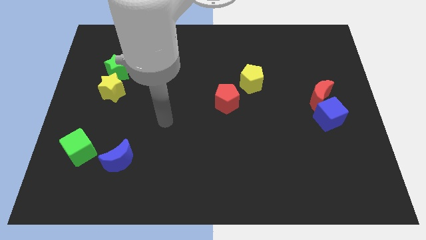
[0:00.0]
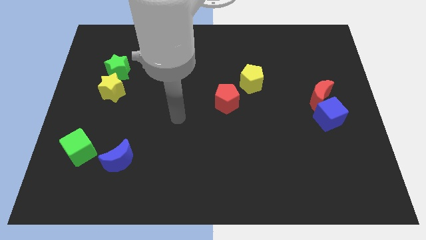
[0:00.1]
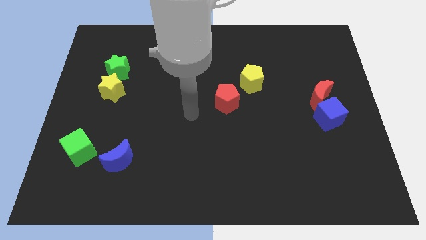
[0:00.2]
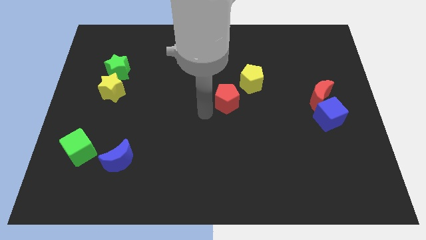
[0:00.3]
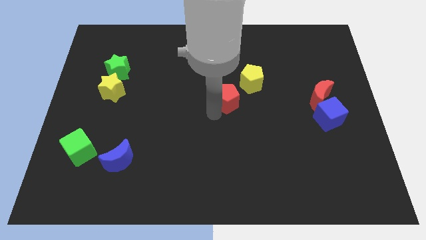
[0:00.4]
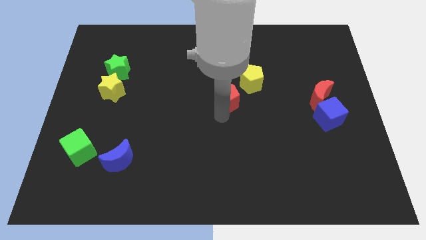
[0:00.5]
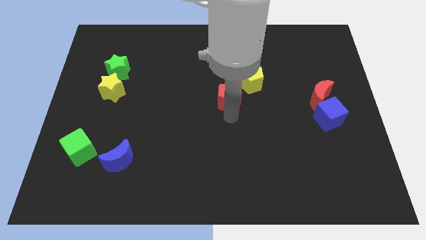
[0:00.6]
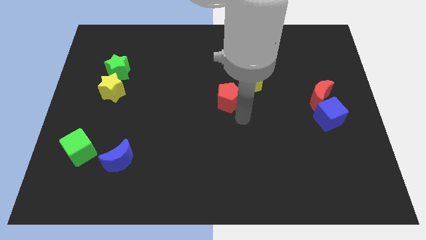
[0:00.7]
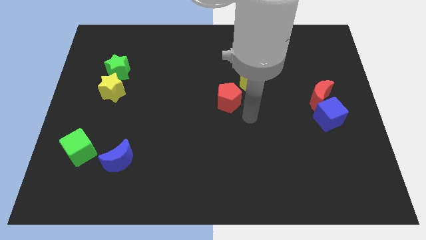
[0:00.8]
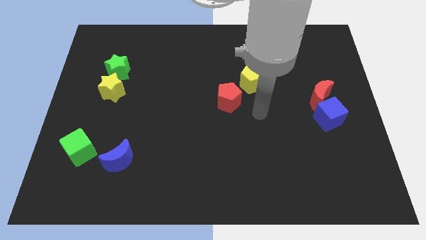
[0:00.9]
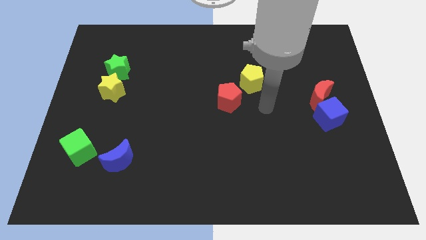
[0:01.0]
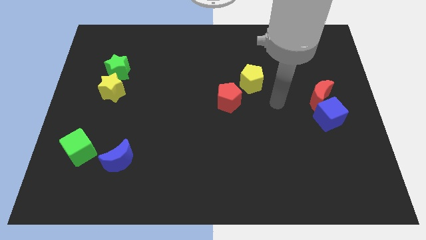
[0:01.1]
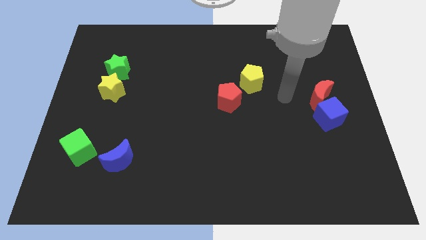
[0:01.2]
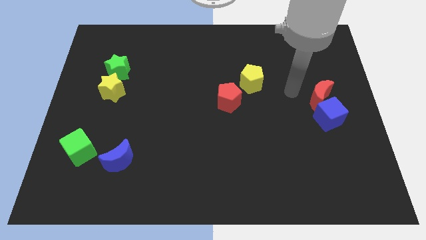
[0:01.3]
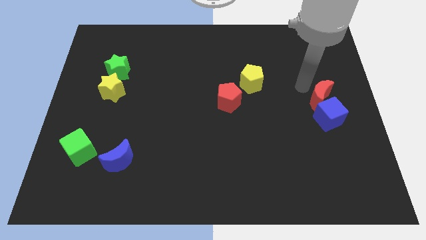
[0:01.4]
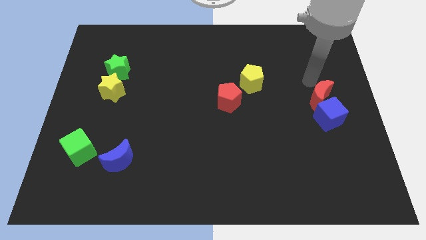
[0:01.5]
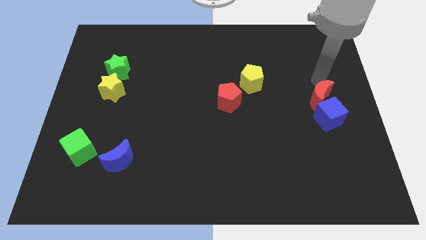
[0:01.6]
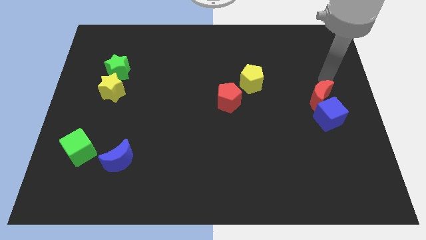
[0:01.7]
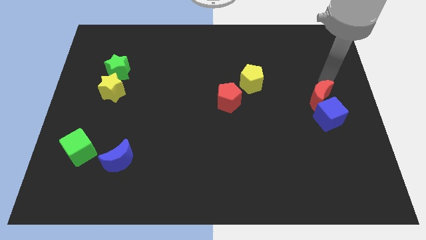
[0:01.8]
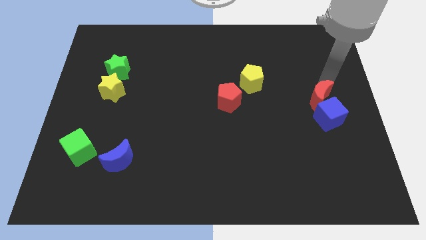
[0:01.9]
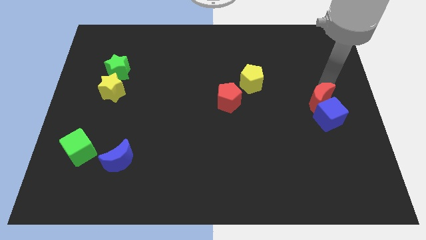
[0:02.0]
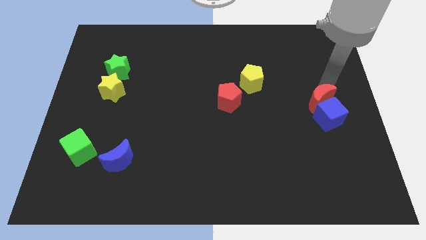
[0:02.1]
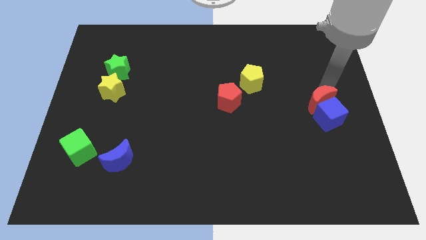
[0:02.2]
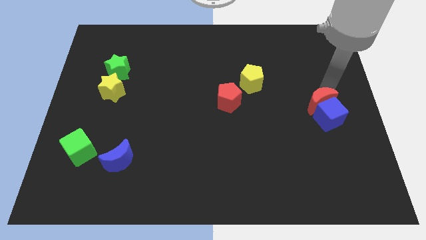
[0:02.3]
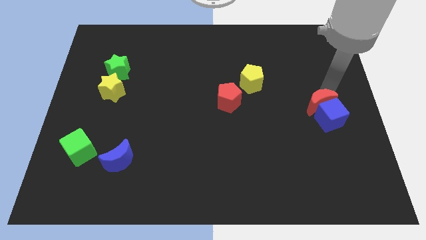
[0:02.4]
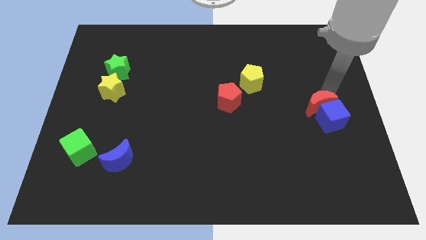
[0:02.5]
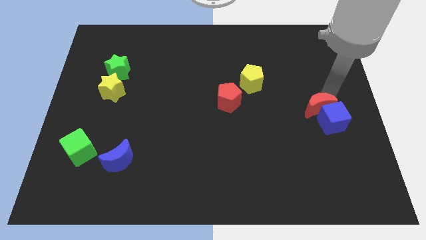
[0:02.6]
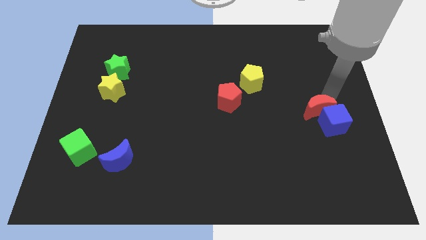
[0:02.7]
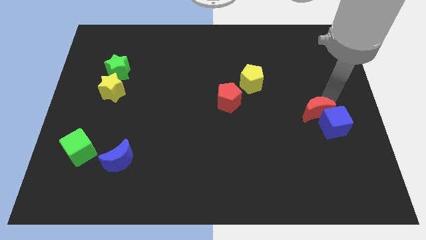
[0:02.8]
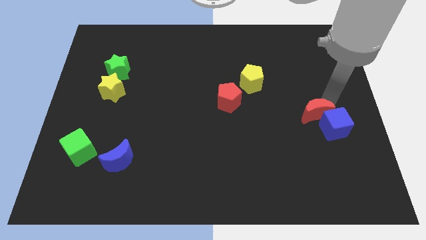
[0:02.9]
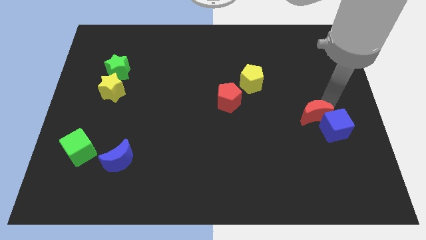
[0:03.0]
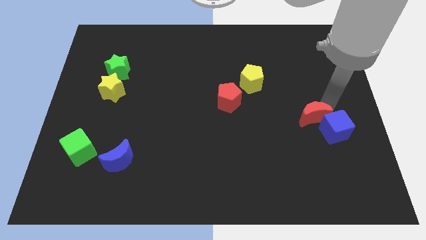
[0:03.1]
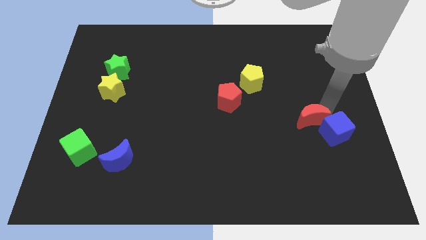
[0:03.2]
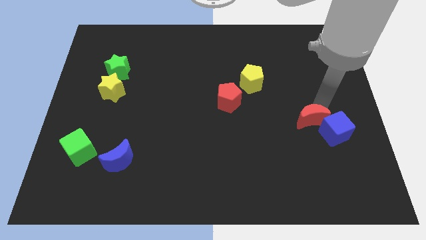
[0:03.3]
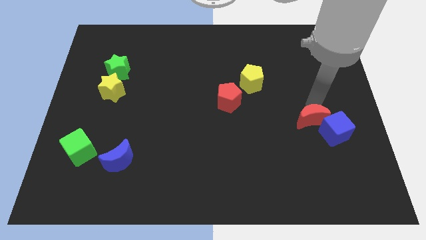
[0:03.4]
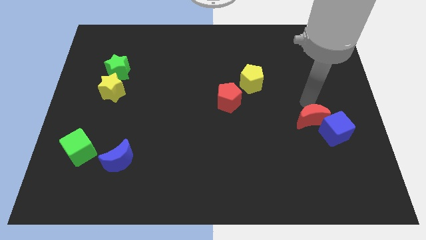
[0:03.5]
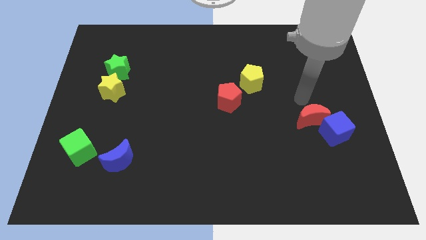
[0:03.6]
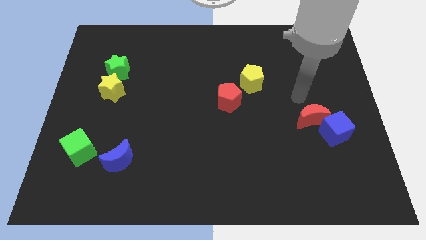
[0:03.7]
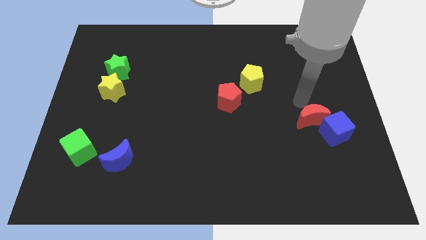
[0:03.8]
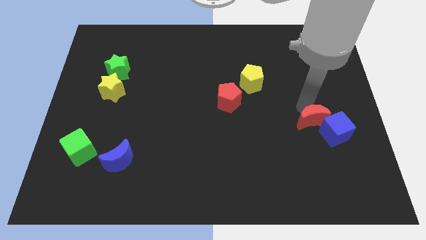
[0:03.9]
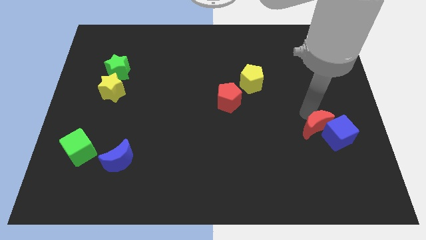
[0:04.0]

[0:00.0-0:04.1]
slightly push the red moon downwards

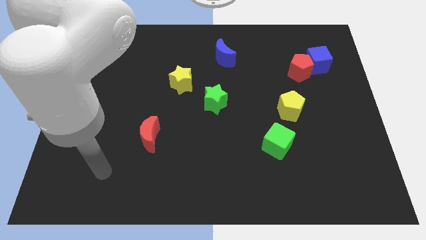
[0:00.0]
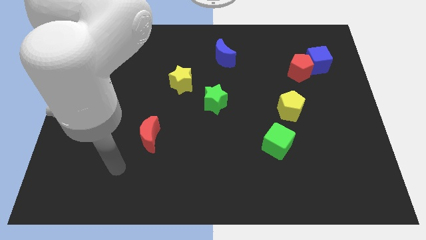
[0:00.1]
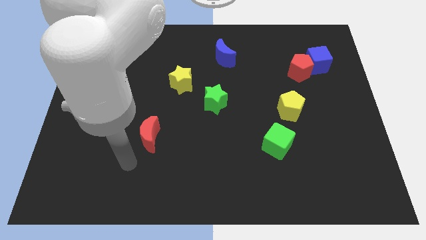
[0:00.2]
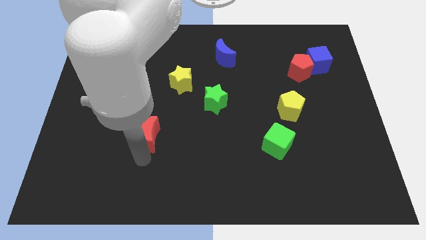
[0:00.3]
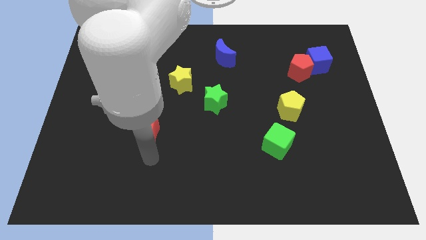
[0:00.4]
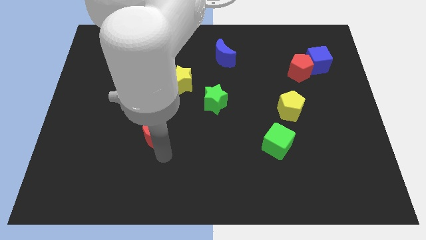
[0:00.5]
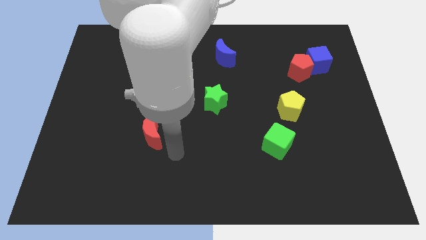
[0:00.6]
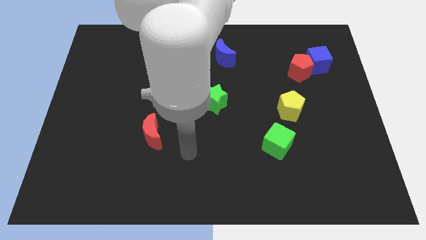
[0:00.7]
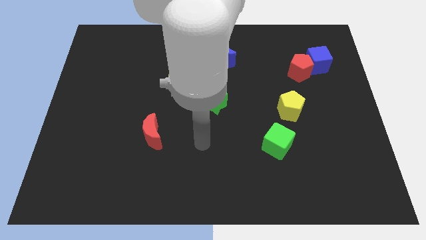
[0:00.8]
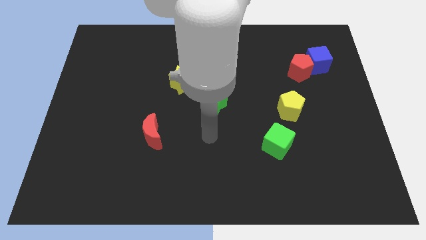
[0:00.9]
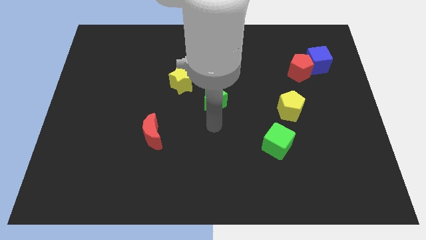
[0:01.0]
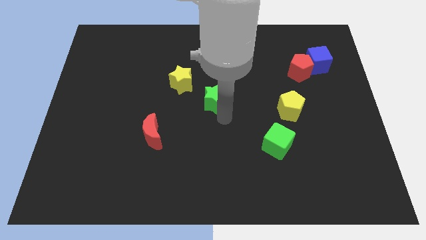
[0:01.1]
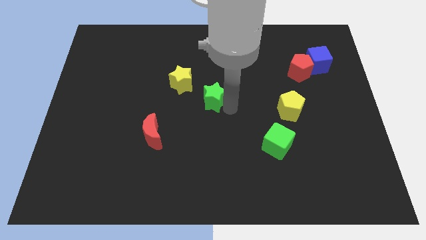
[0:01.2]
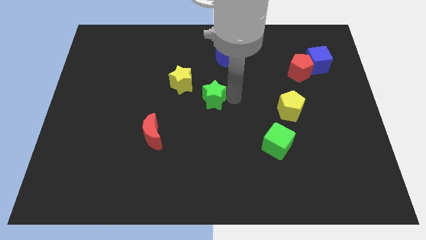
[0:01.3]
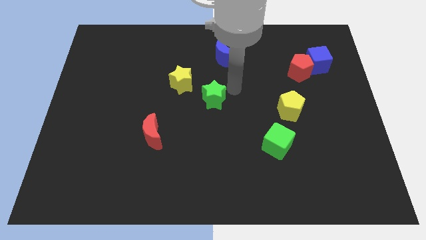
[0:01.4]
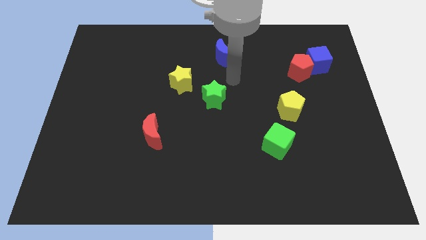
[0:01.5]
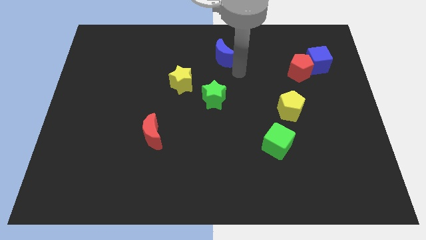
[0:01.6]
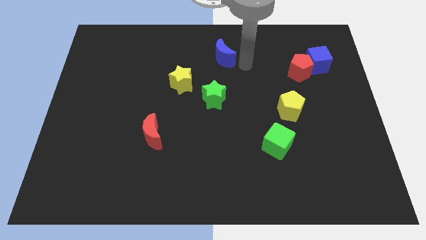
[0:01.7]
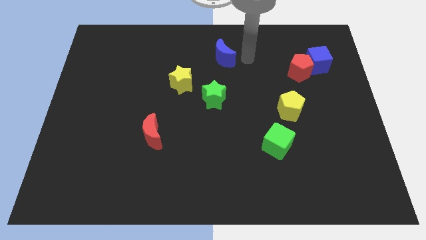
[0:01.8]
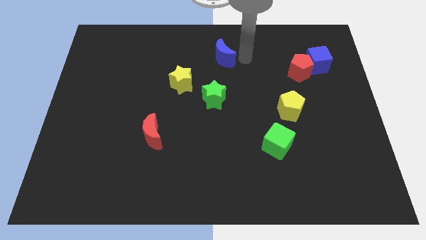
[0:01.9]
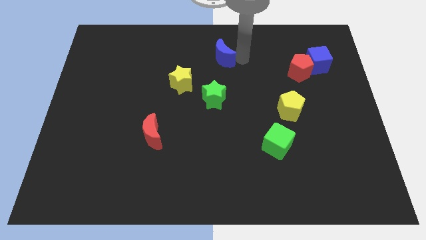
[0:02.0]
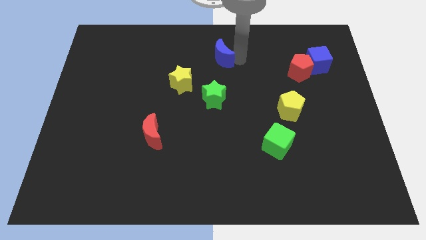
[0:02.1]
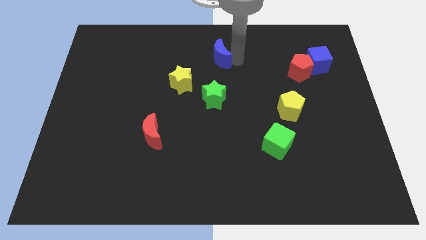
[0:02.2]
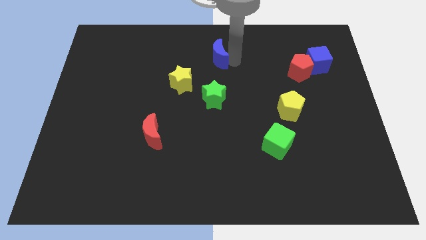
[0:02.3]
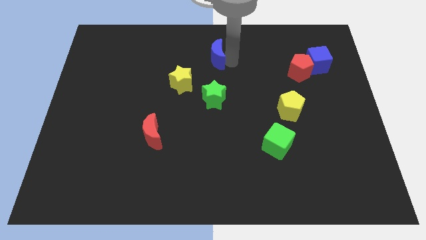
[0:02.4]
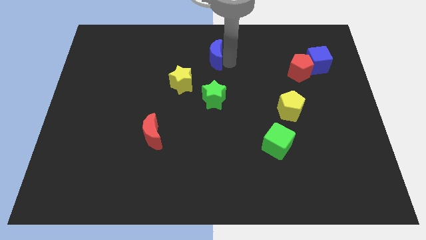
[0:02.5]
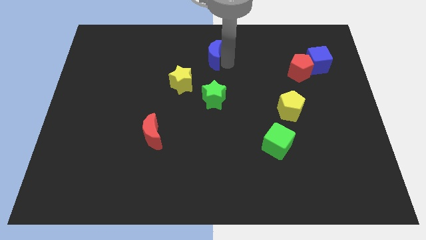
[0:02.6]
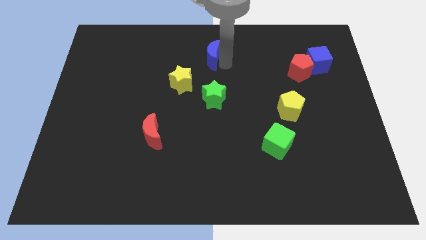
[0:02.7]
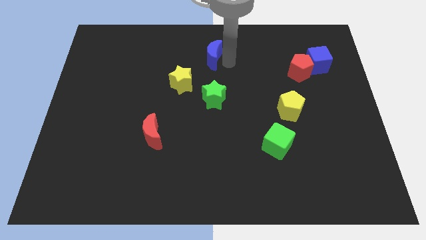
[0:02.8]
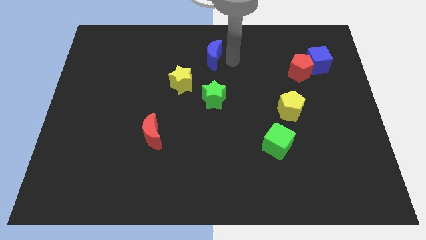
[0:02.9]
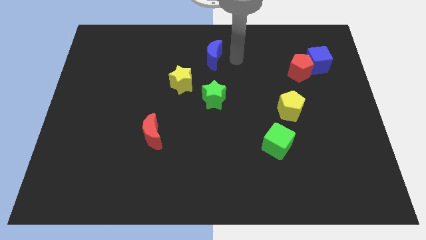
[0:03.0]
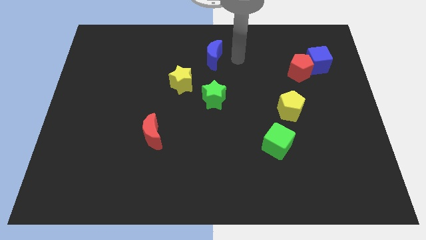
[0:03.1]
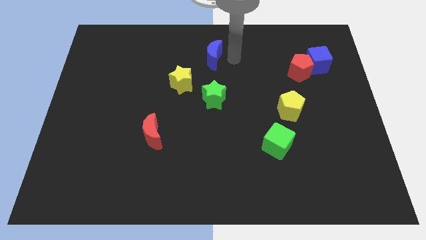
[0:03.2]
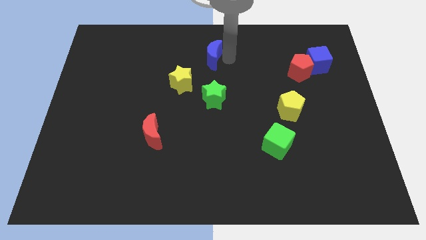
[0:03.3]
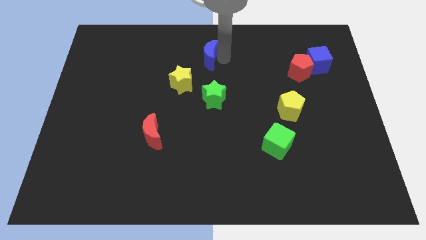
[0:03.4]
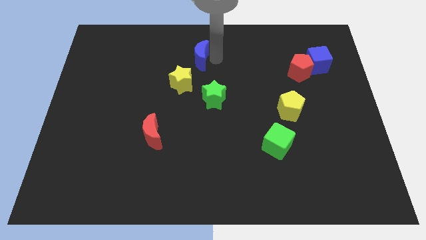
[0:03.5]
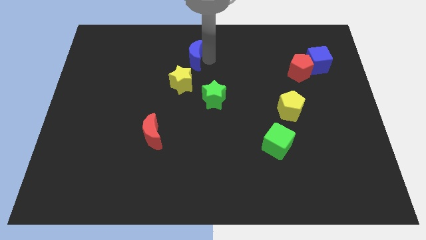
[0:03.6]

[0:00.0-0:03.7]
move the blue moon left a little bit
